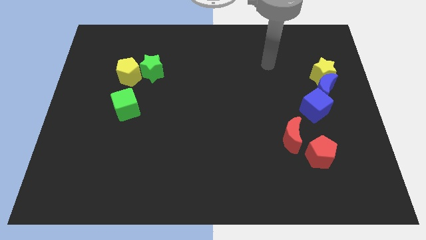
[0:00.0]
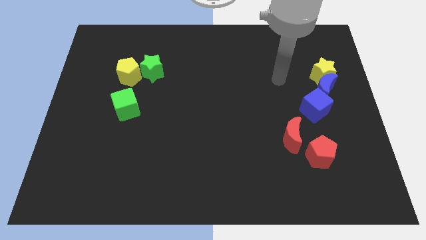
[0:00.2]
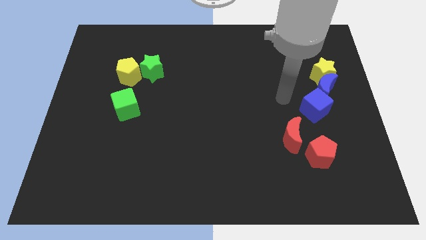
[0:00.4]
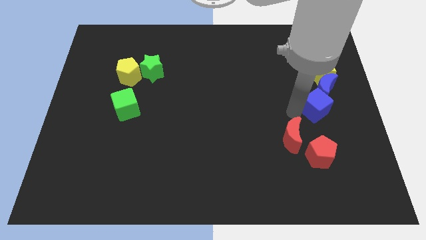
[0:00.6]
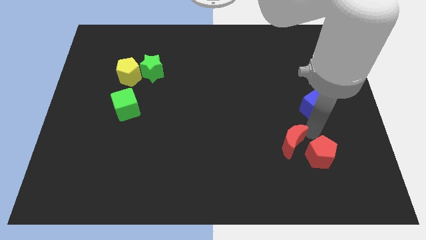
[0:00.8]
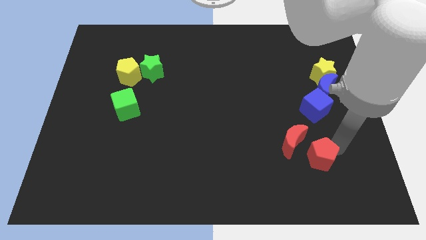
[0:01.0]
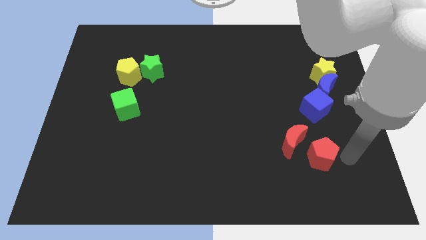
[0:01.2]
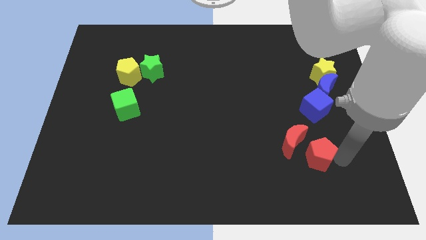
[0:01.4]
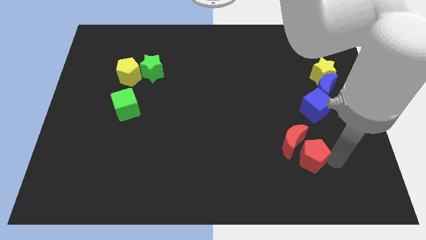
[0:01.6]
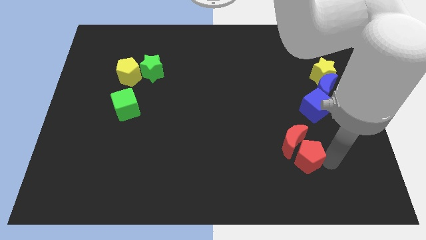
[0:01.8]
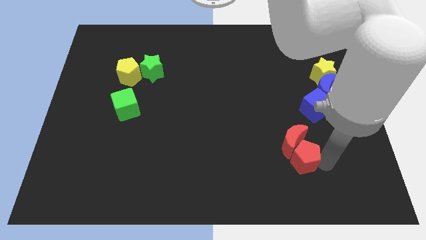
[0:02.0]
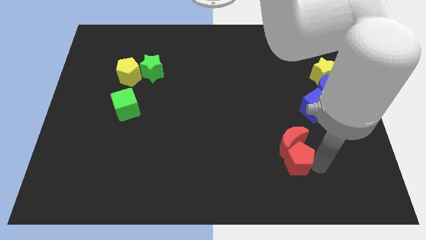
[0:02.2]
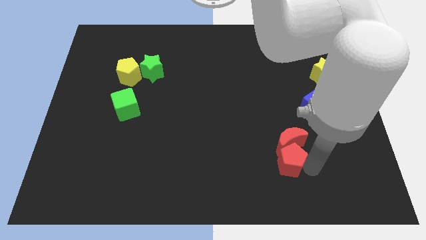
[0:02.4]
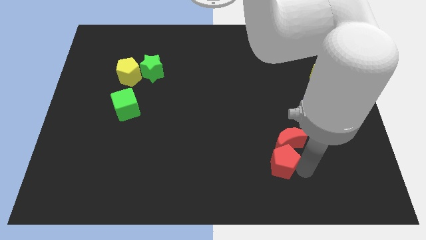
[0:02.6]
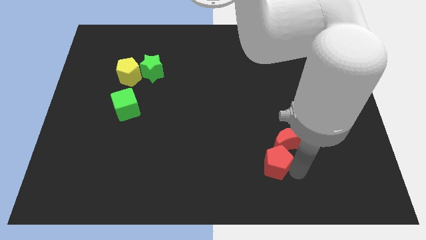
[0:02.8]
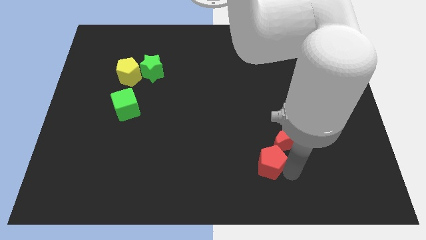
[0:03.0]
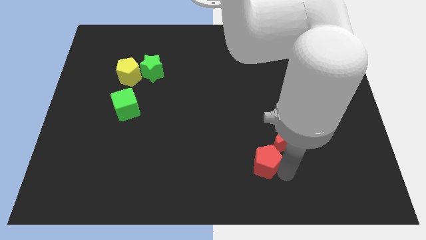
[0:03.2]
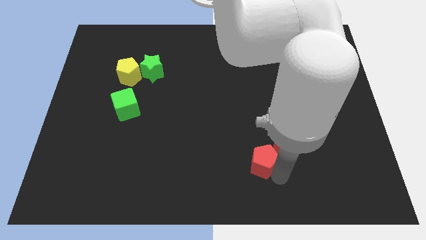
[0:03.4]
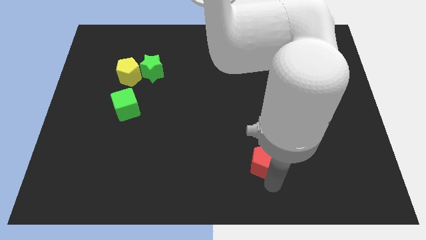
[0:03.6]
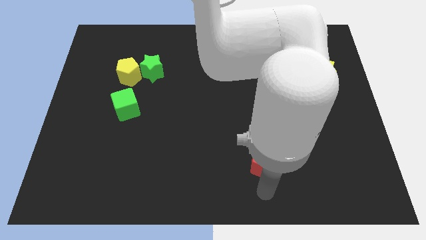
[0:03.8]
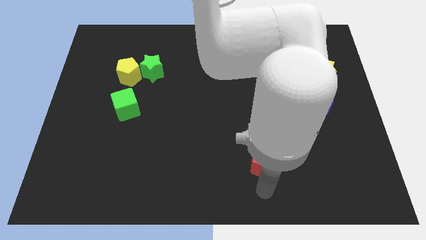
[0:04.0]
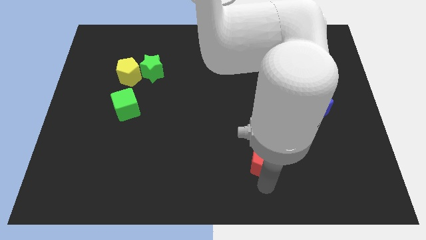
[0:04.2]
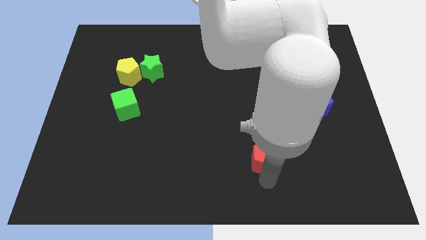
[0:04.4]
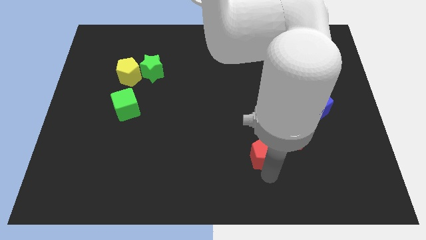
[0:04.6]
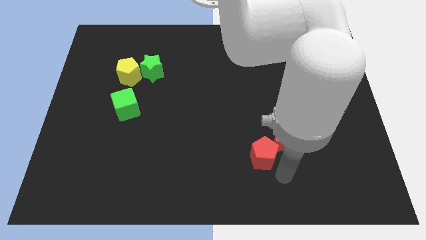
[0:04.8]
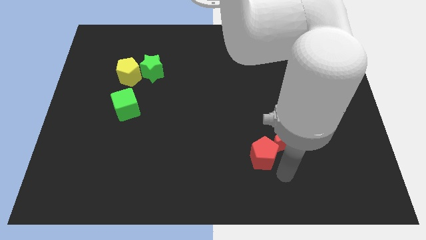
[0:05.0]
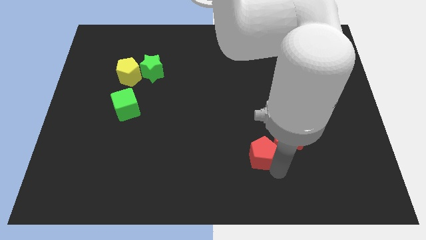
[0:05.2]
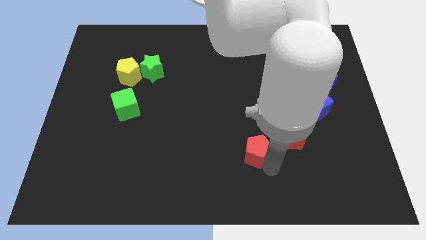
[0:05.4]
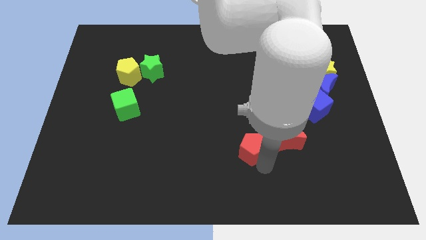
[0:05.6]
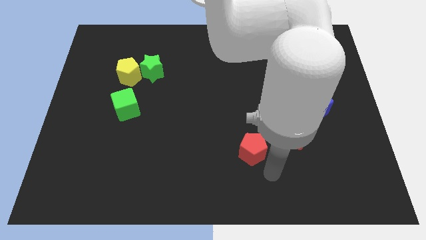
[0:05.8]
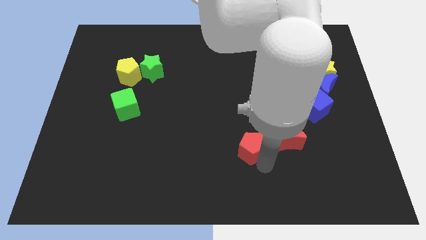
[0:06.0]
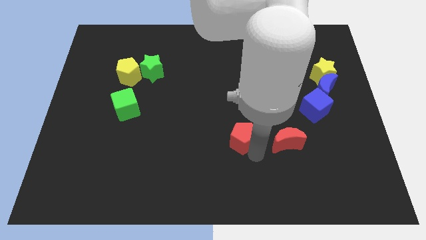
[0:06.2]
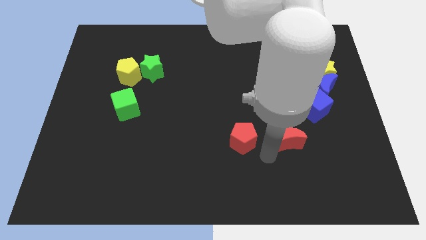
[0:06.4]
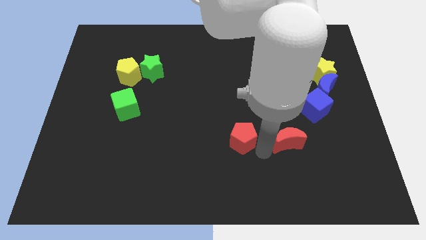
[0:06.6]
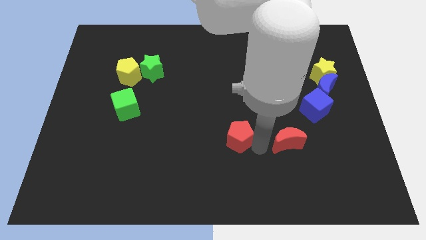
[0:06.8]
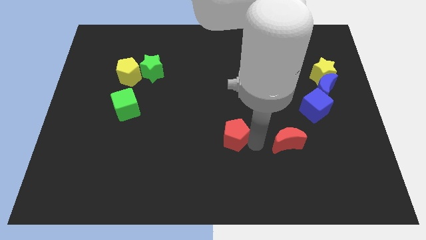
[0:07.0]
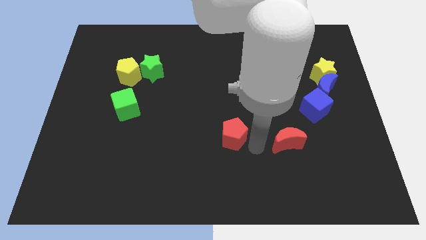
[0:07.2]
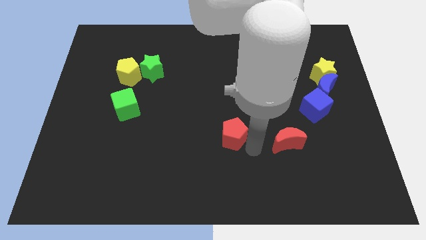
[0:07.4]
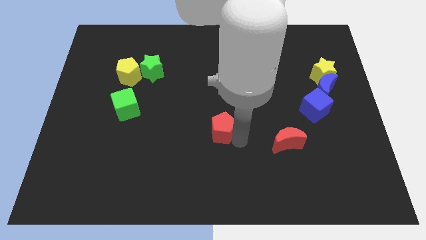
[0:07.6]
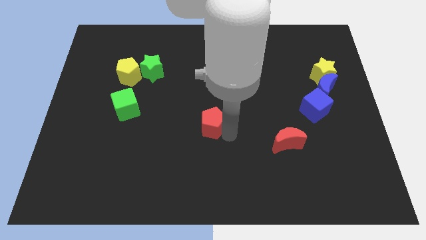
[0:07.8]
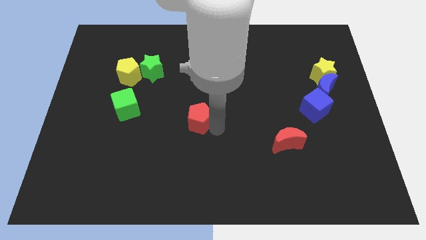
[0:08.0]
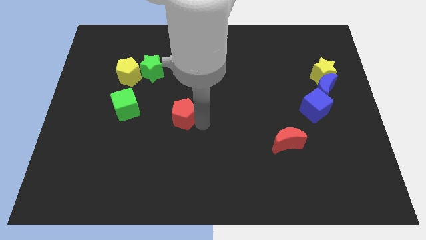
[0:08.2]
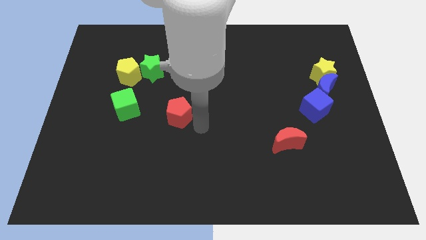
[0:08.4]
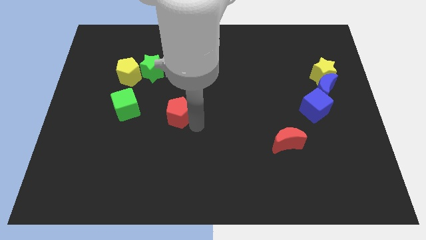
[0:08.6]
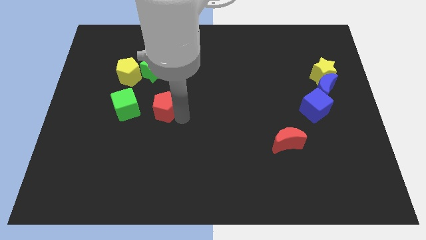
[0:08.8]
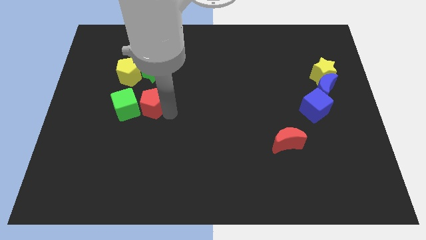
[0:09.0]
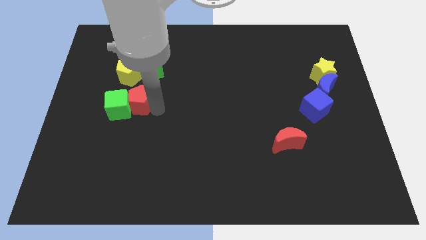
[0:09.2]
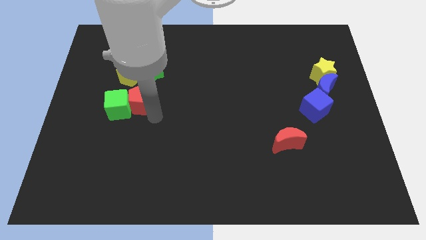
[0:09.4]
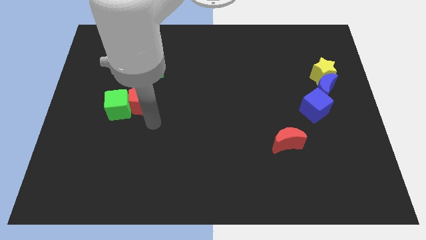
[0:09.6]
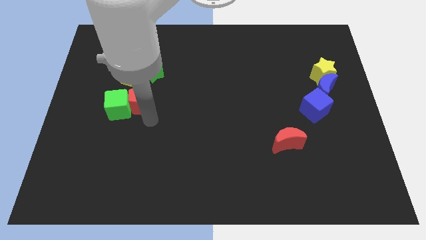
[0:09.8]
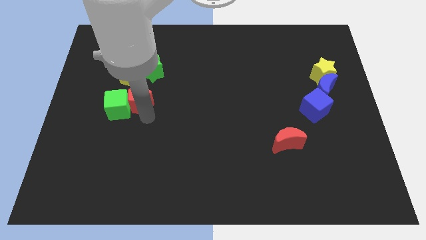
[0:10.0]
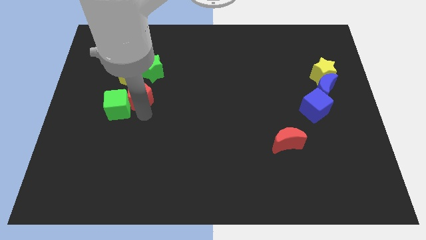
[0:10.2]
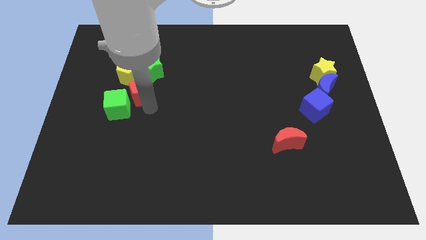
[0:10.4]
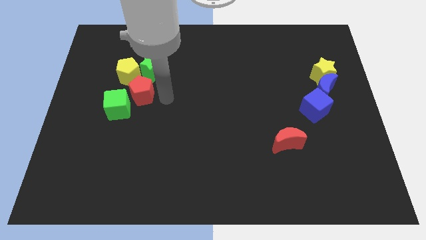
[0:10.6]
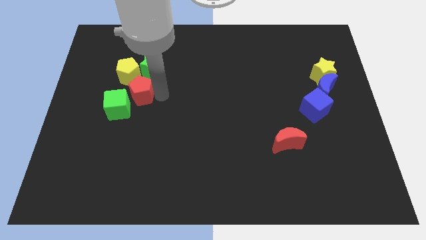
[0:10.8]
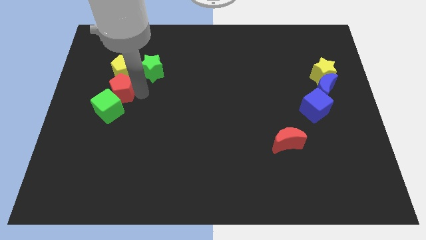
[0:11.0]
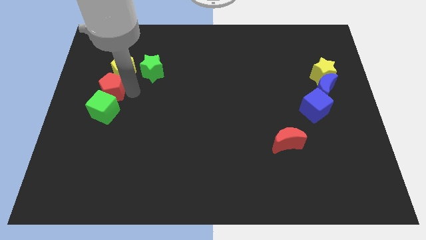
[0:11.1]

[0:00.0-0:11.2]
move the red pentagon to the top left side of the green cube

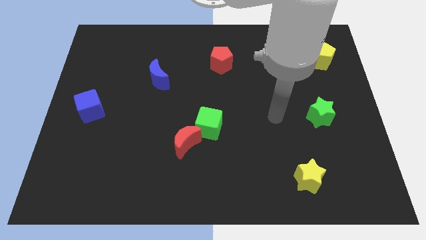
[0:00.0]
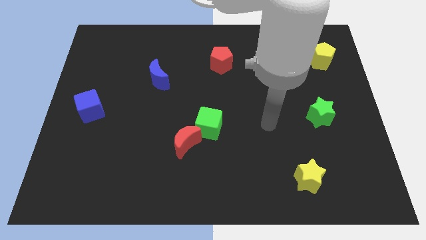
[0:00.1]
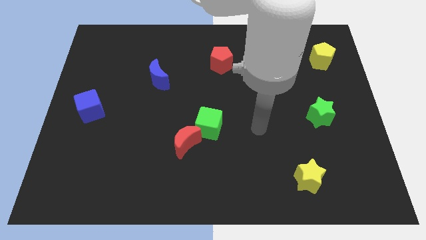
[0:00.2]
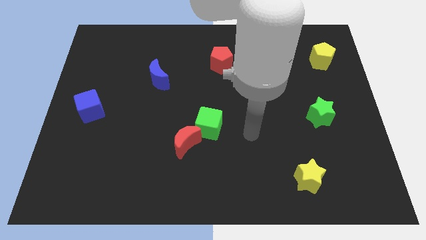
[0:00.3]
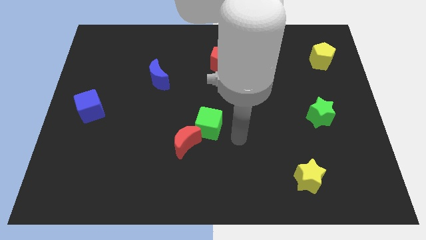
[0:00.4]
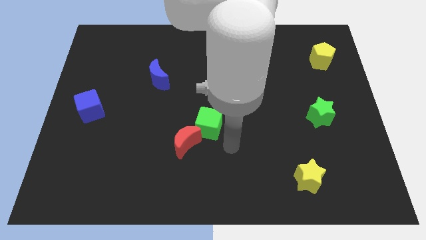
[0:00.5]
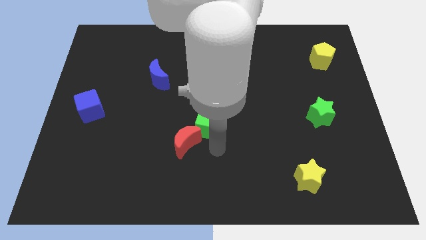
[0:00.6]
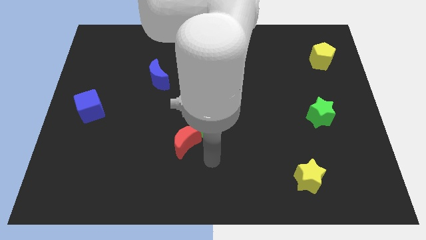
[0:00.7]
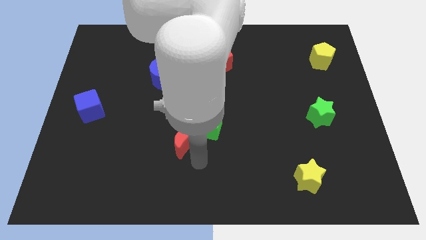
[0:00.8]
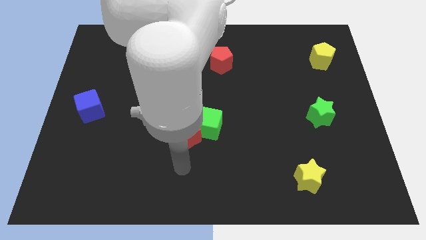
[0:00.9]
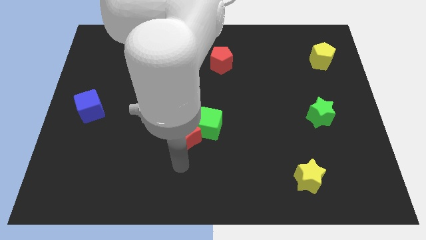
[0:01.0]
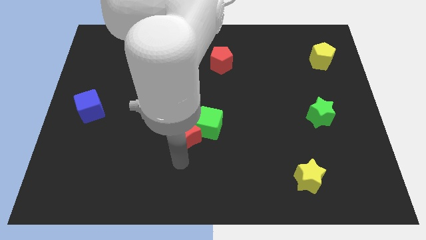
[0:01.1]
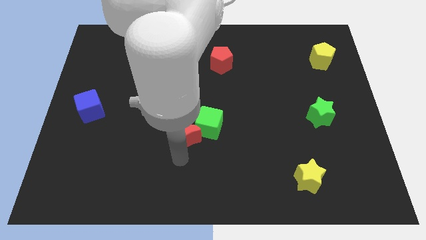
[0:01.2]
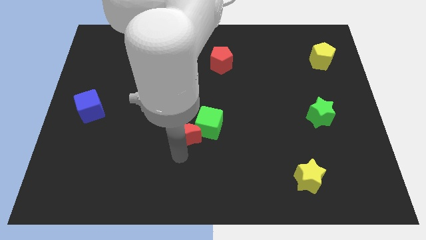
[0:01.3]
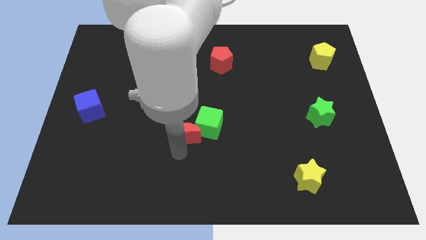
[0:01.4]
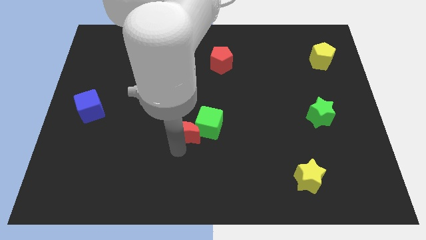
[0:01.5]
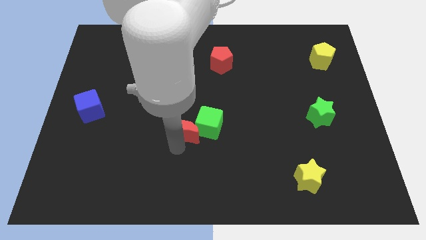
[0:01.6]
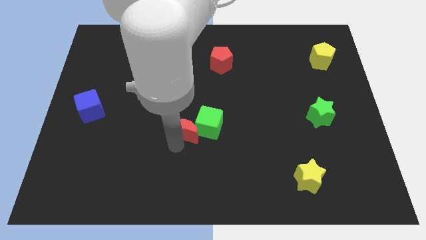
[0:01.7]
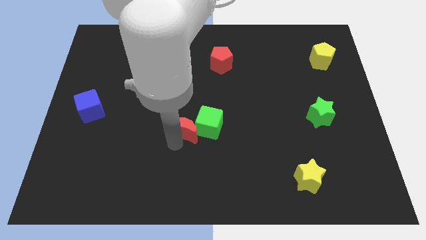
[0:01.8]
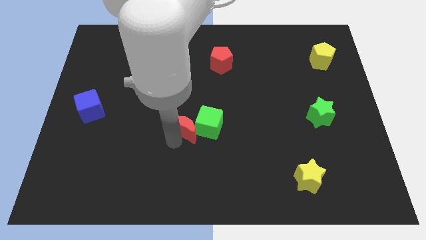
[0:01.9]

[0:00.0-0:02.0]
slide the red moon diagonally up and to the left of the green cube
